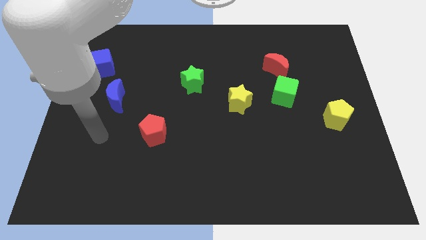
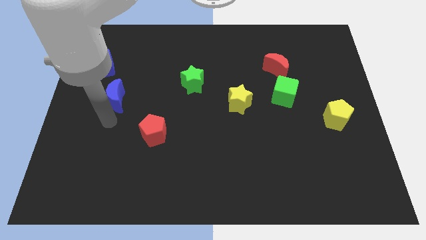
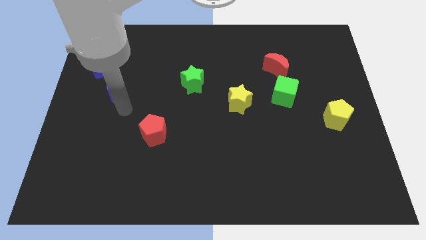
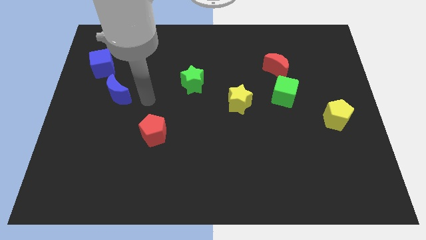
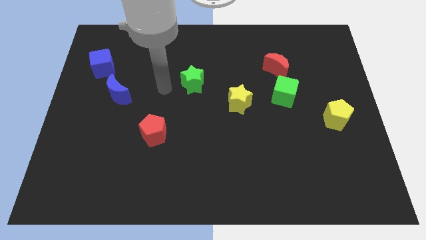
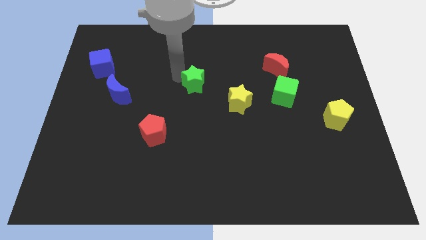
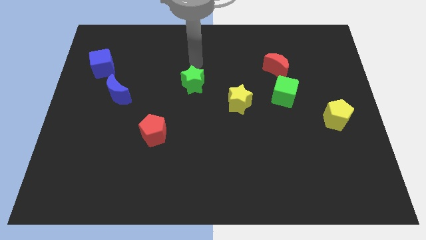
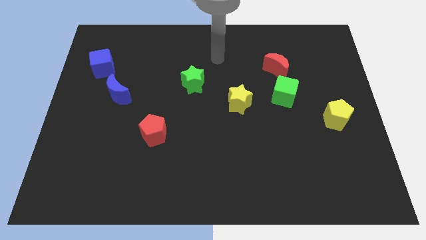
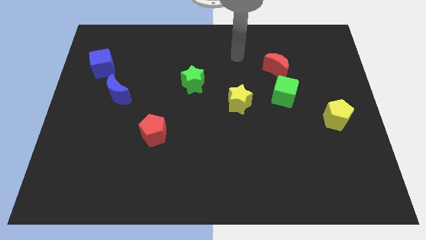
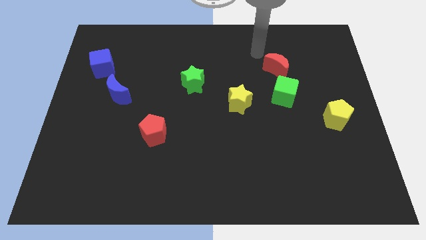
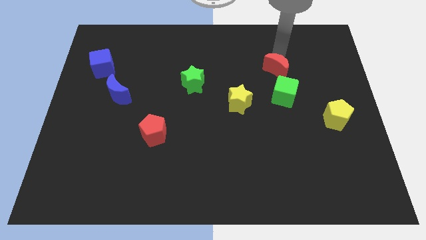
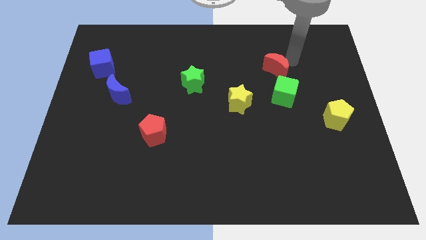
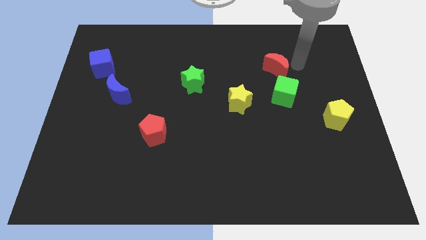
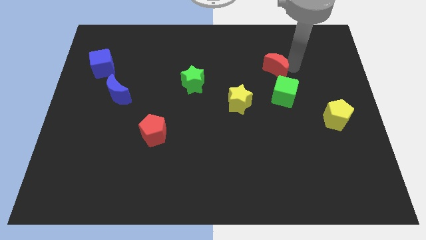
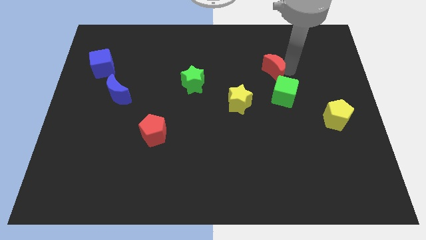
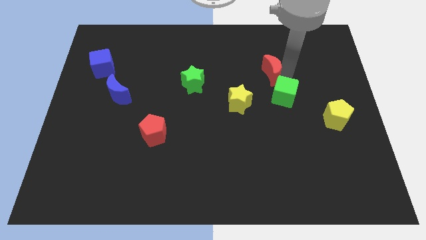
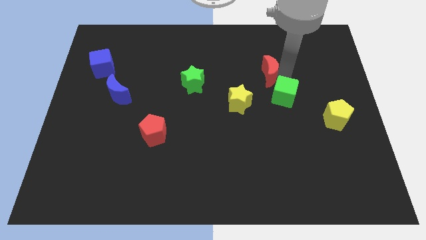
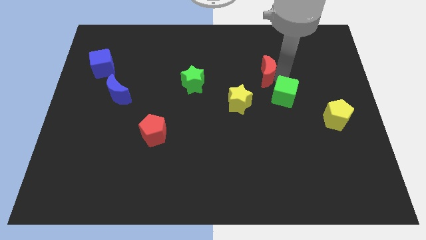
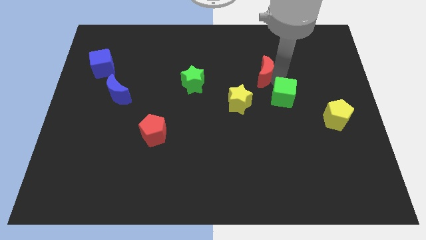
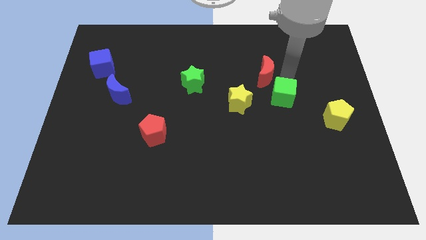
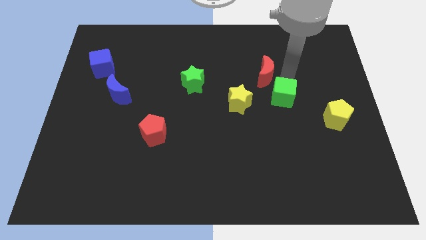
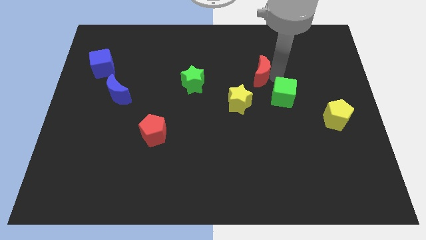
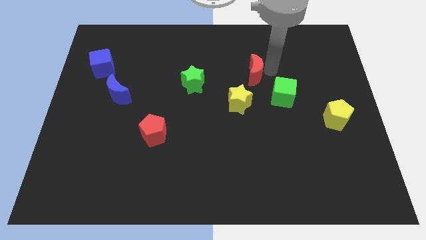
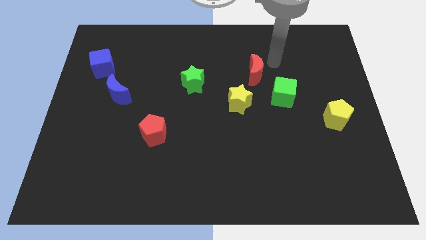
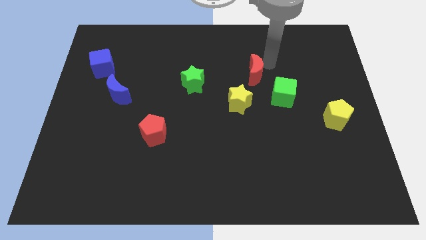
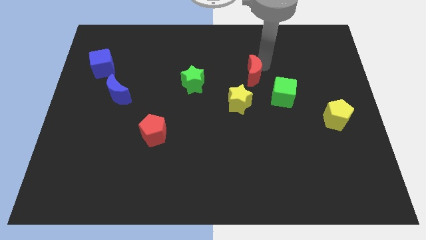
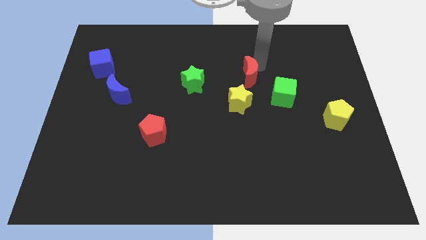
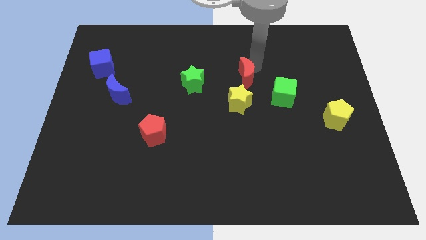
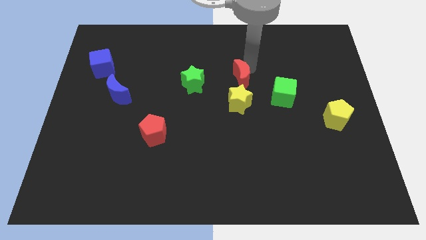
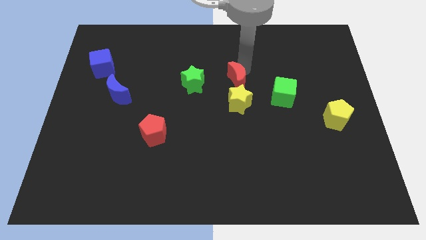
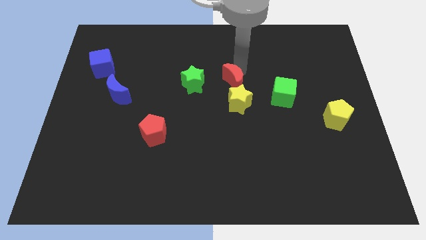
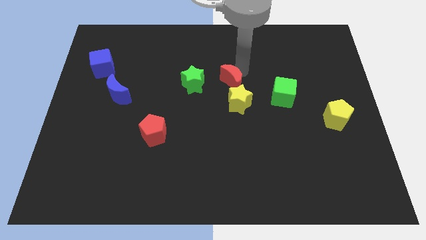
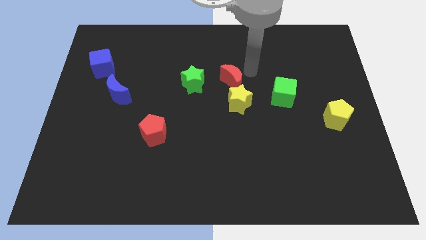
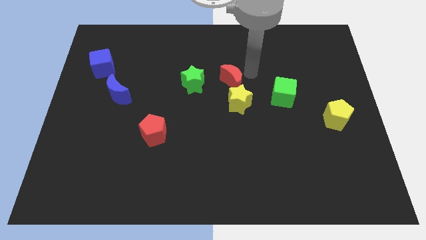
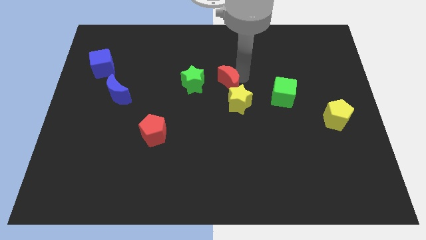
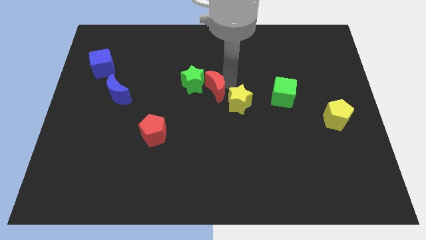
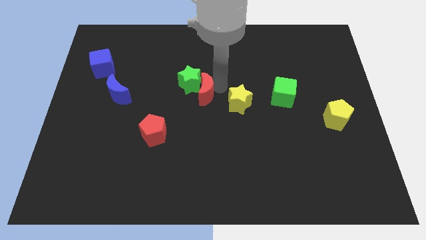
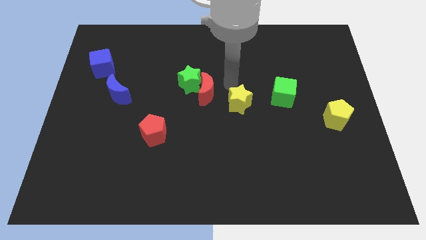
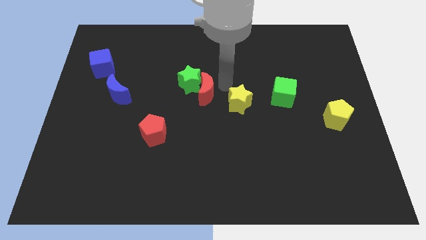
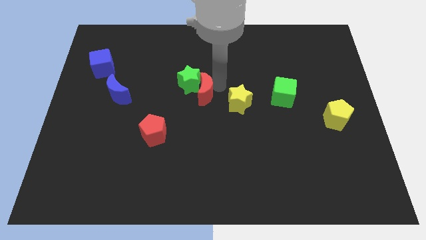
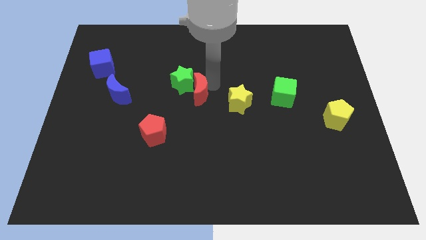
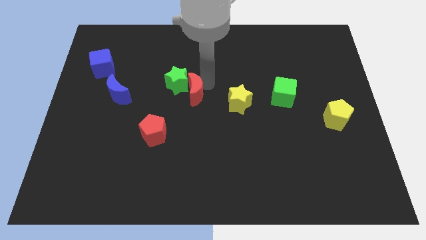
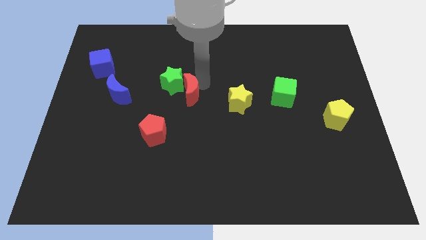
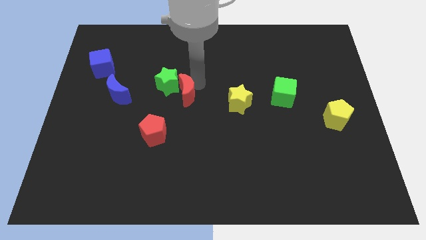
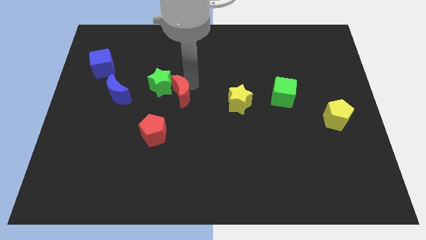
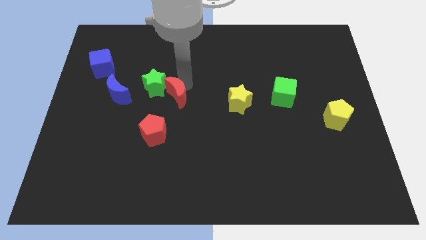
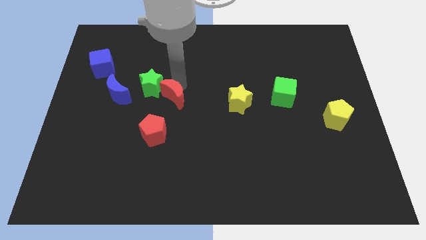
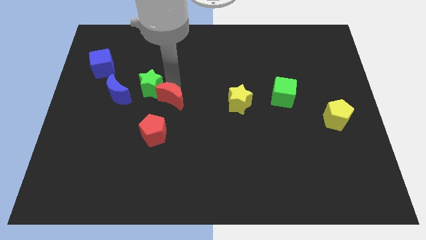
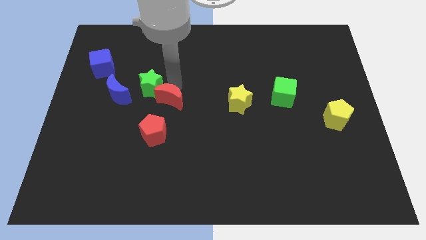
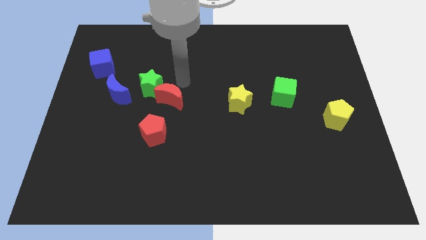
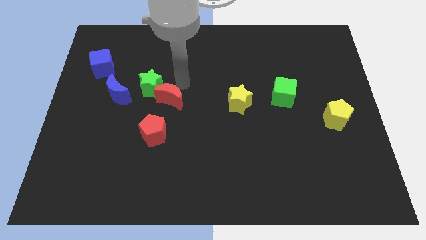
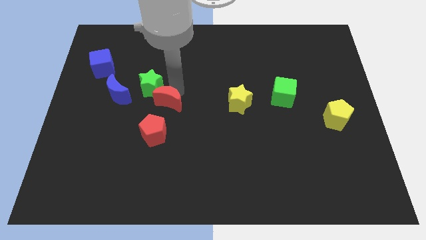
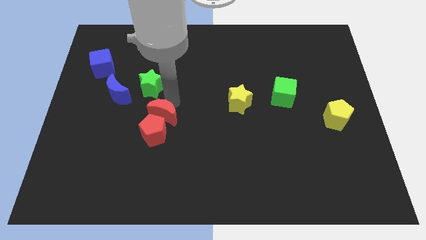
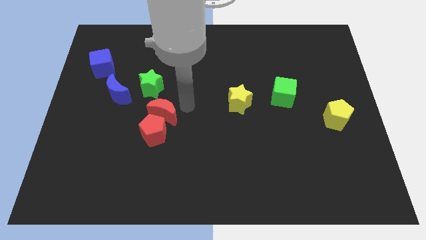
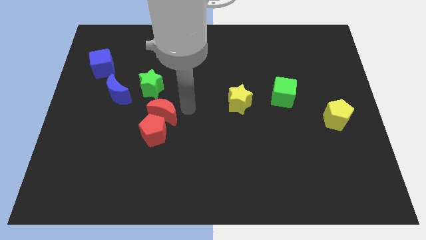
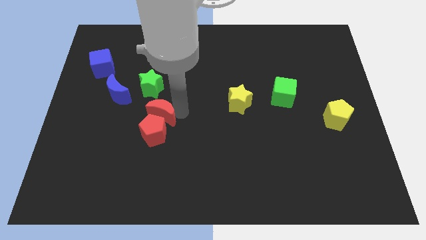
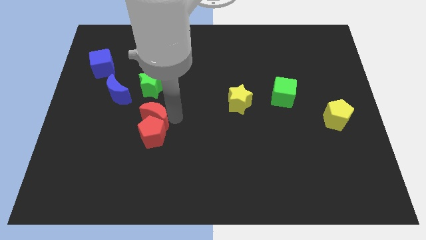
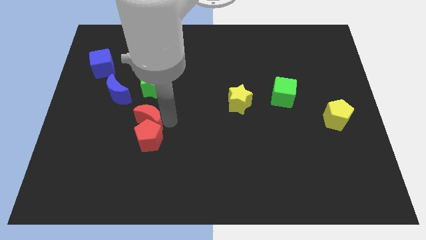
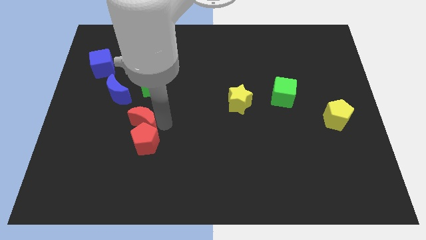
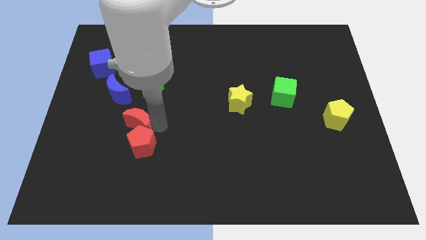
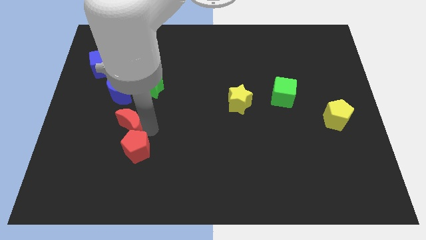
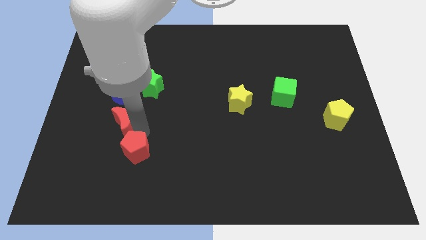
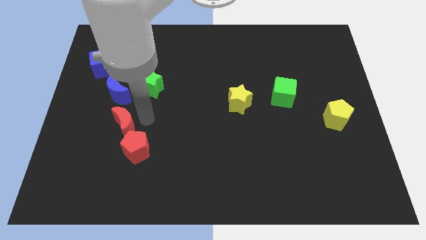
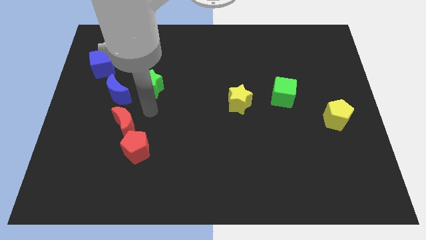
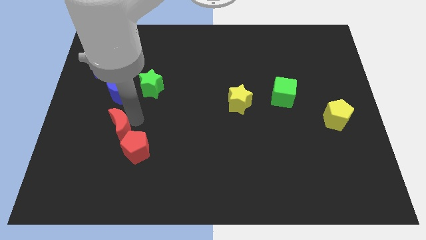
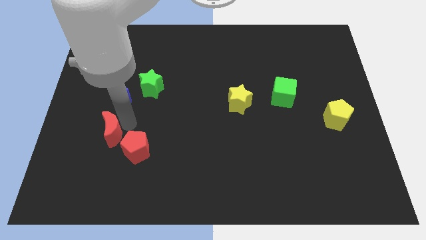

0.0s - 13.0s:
slide the red moon to the left side of the red pentagon
